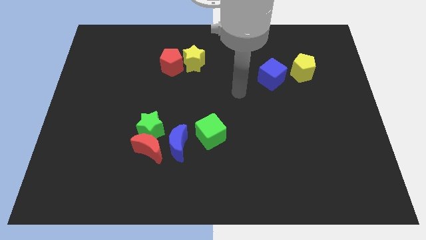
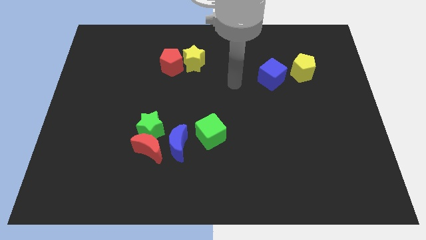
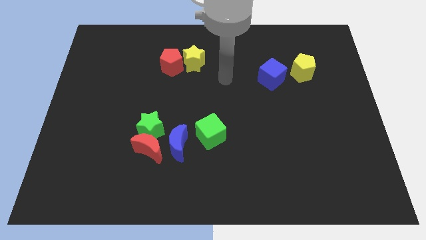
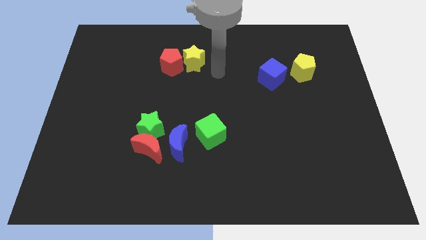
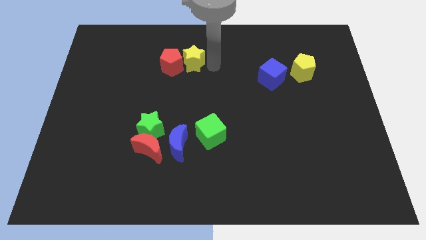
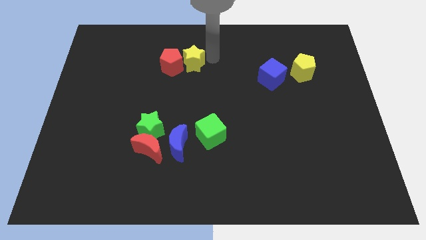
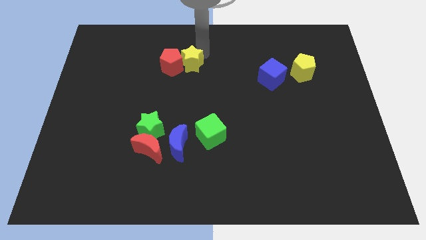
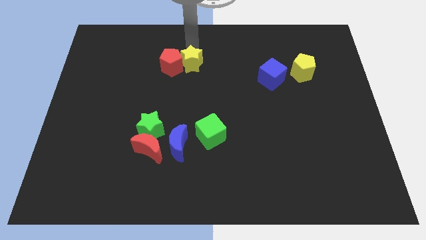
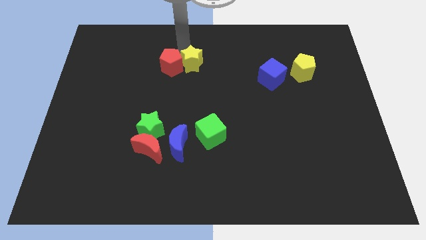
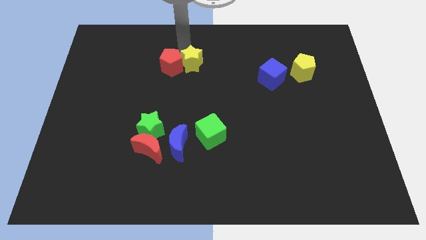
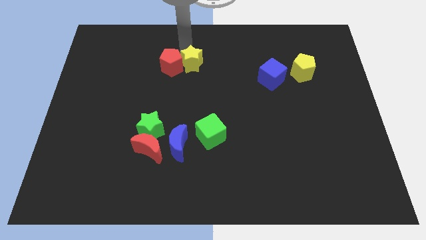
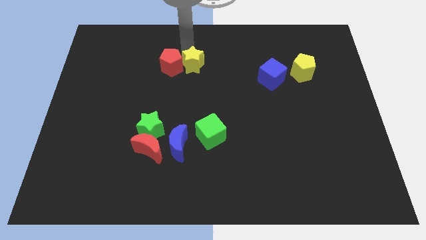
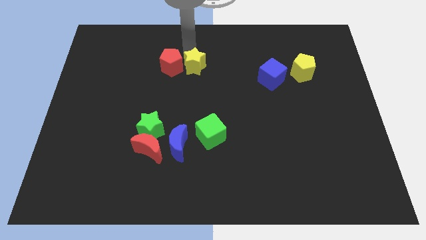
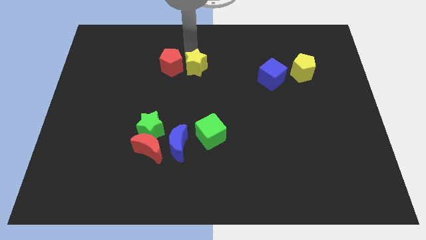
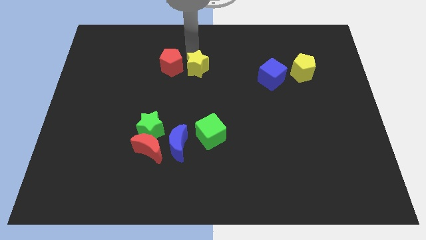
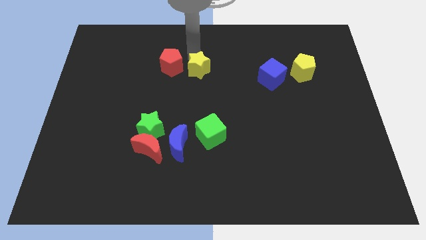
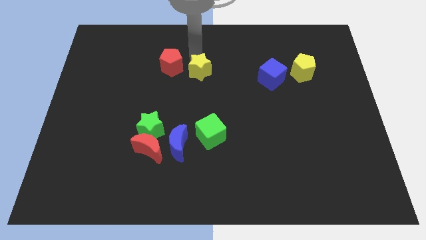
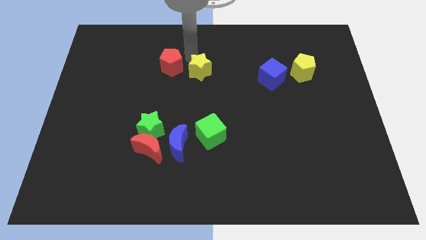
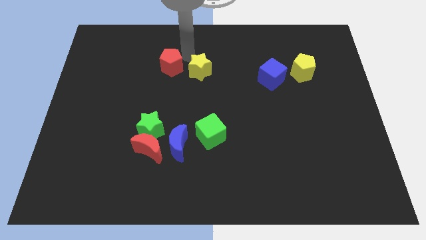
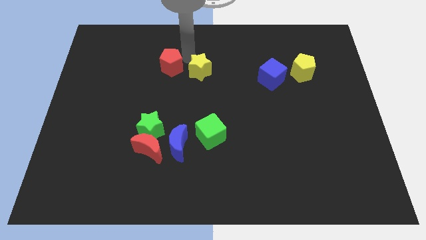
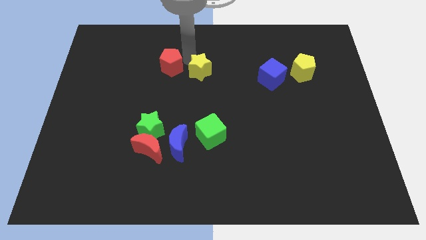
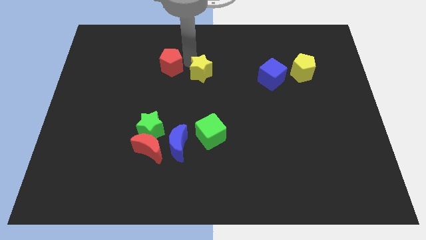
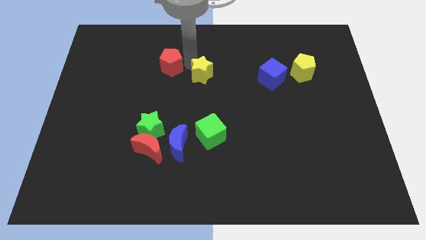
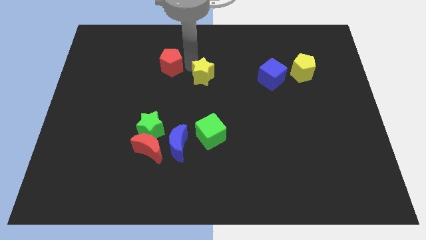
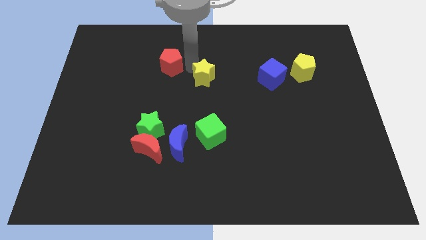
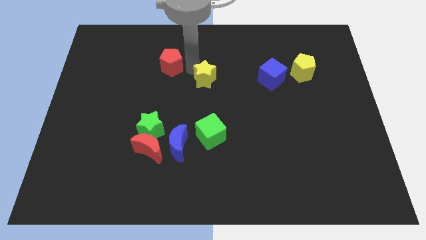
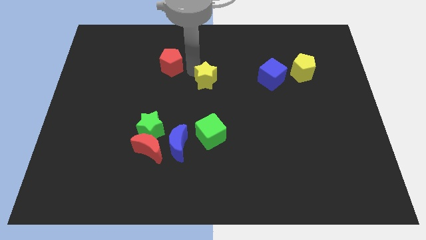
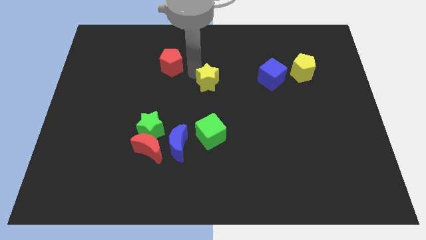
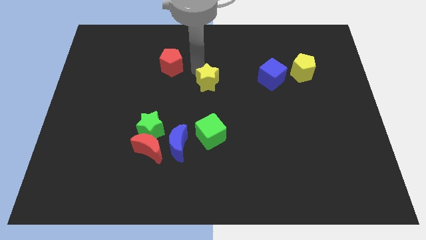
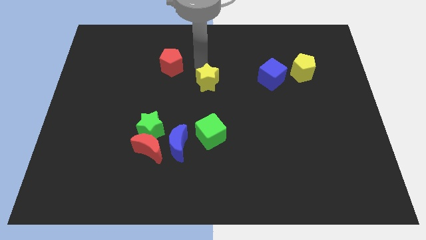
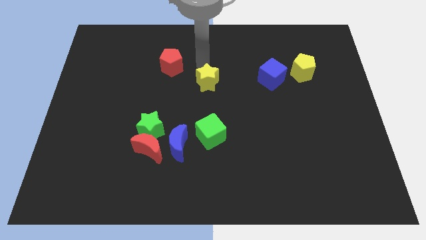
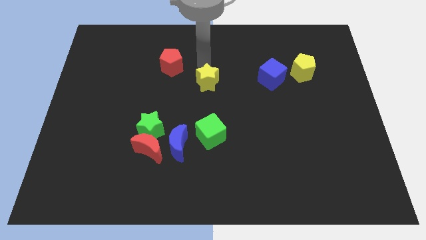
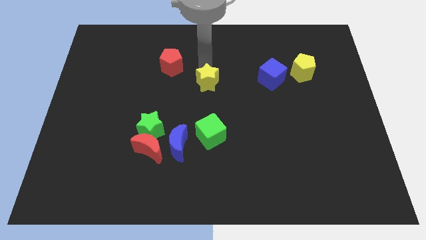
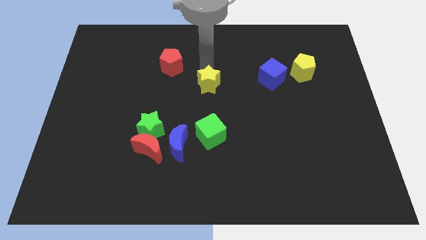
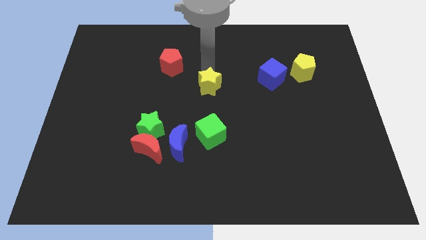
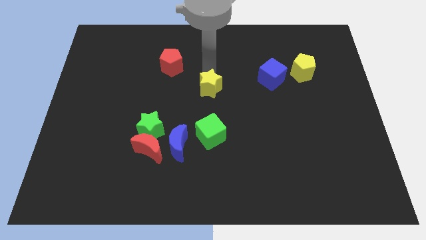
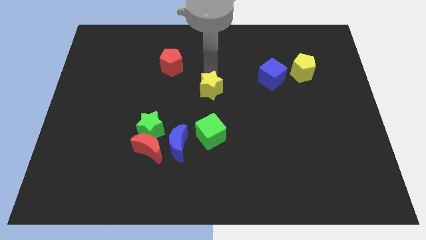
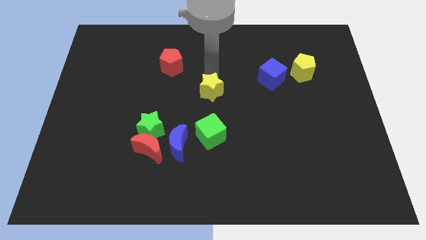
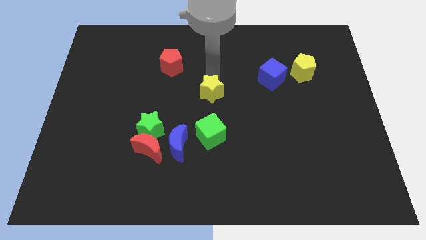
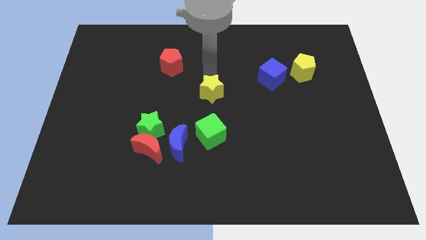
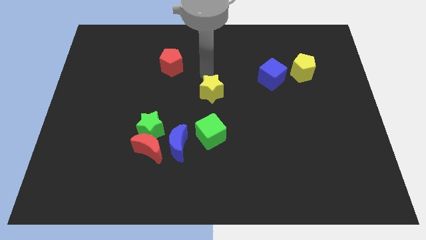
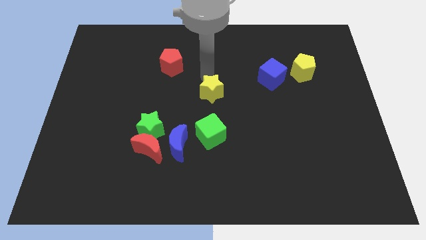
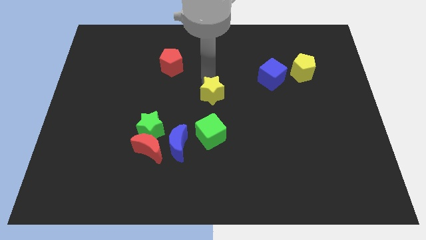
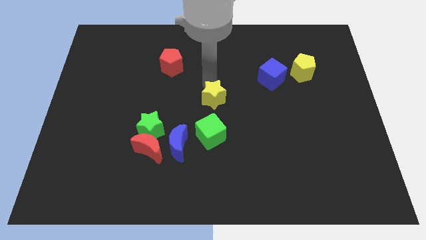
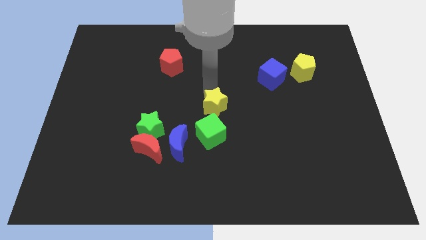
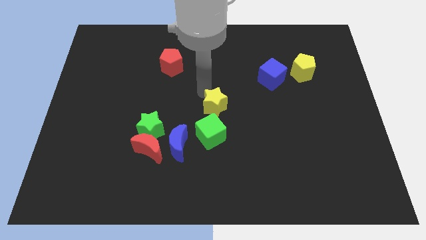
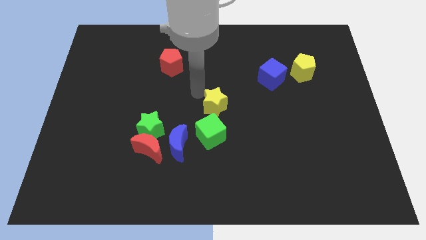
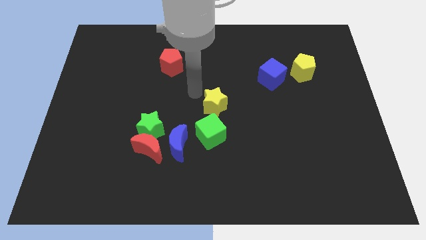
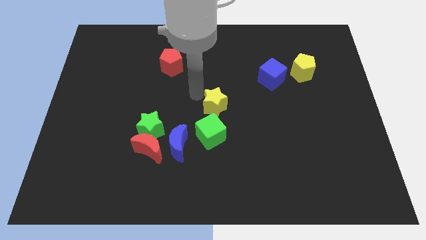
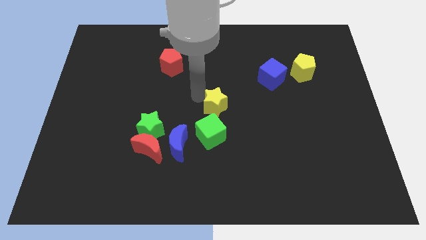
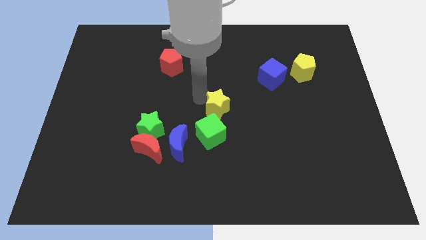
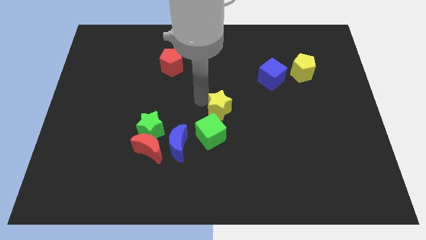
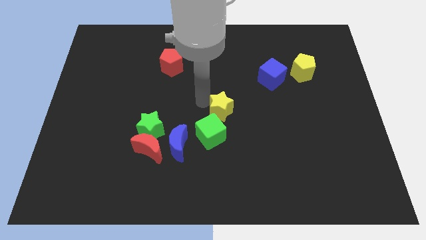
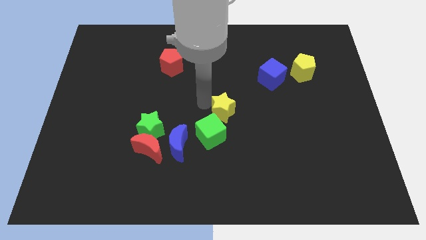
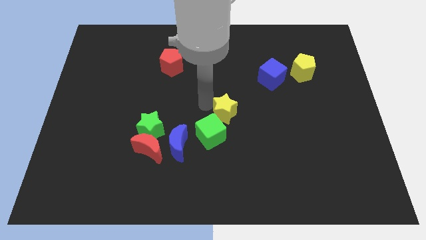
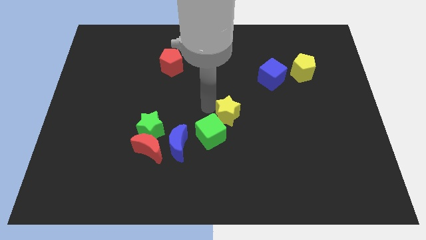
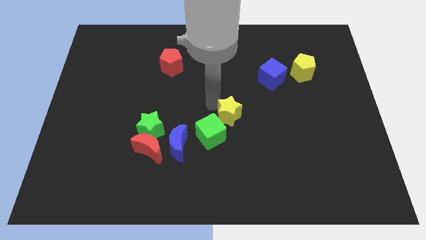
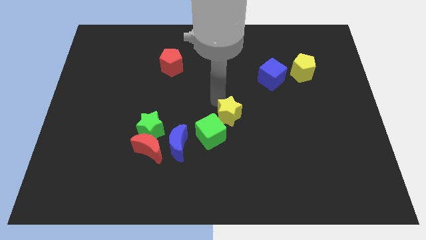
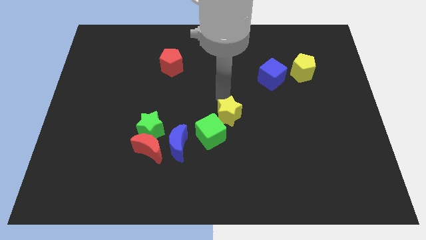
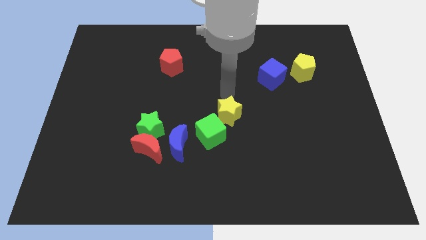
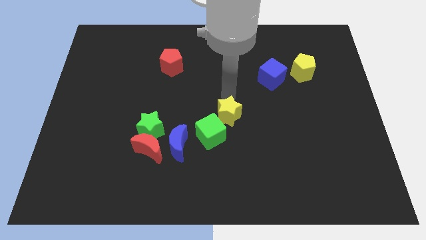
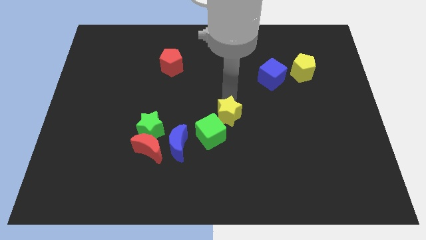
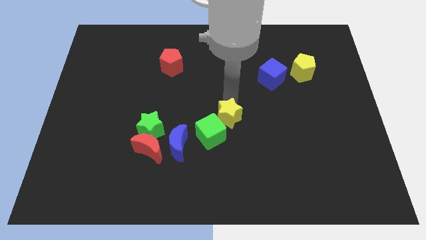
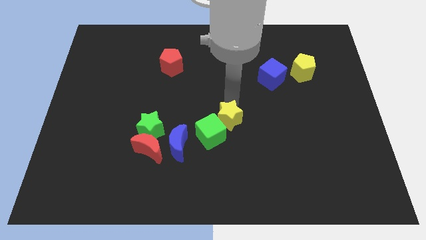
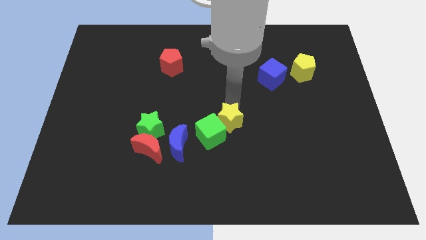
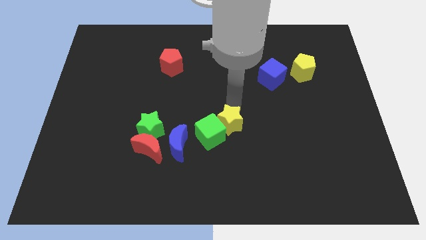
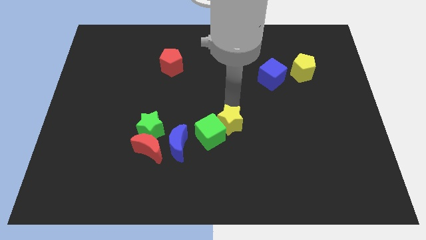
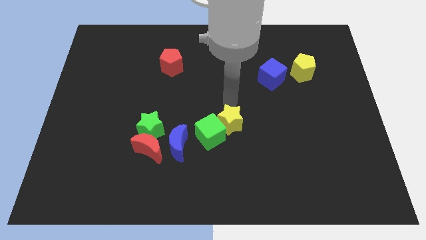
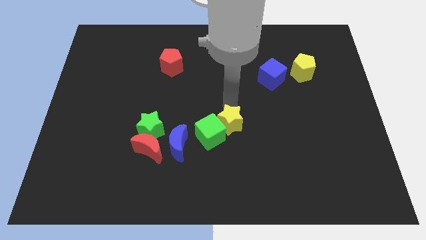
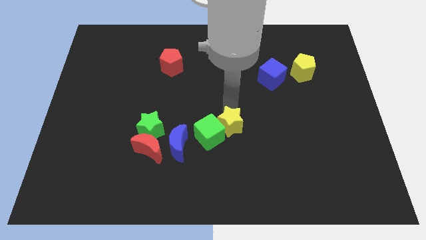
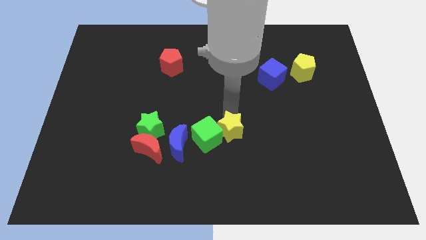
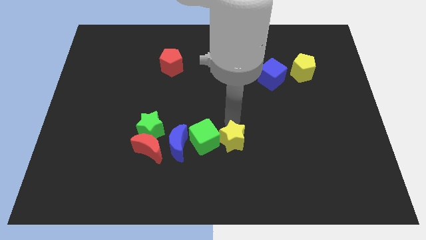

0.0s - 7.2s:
move the yellow star downwards

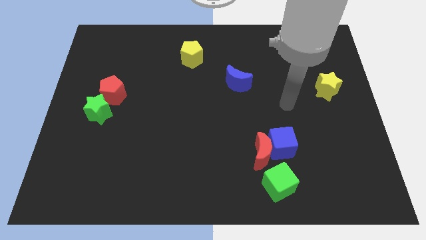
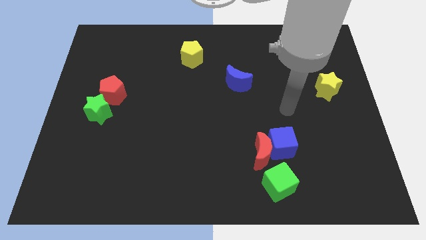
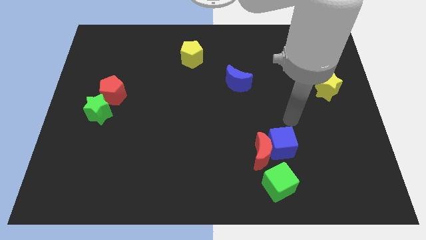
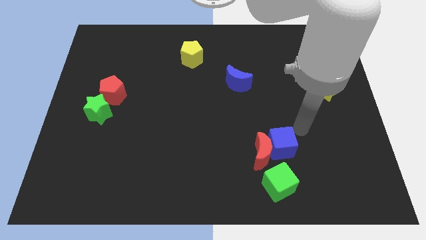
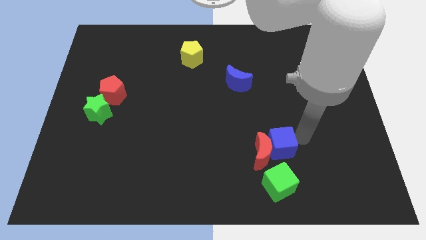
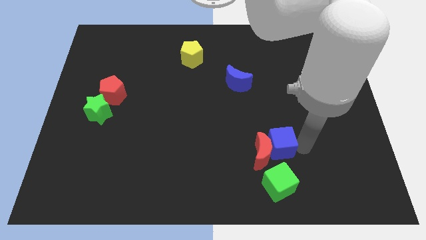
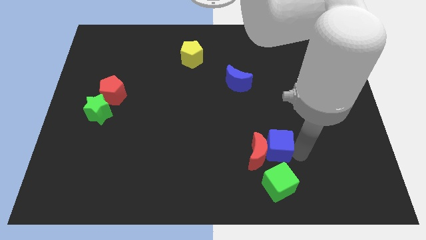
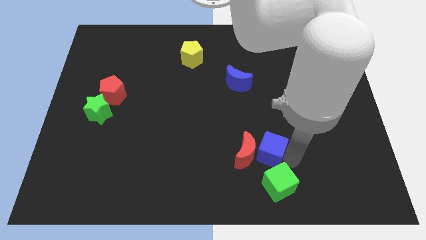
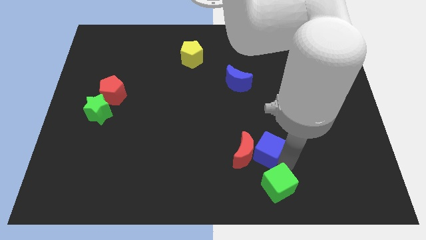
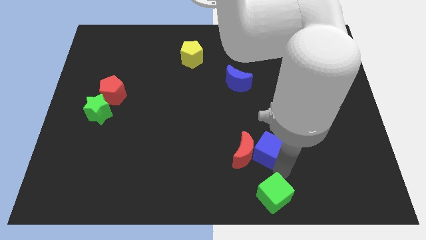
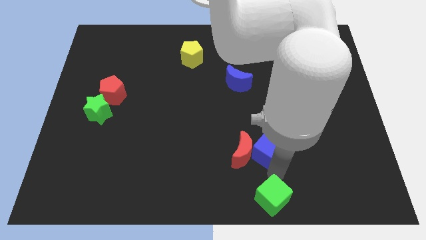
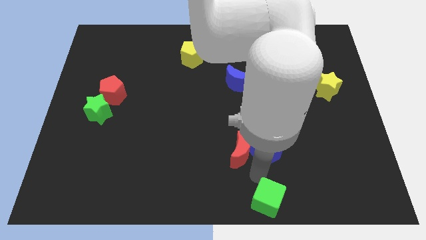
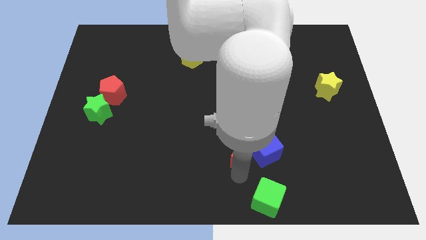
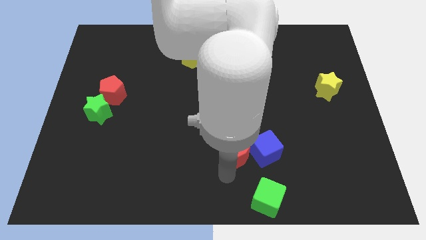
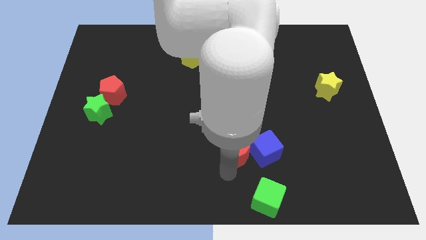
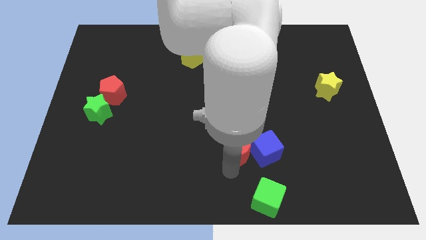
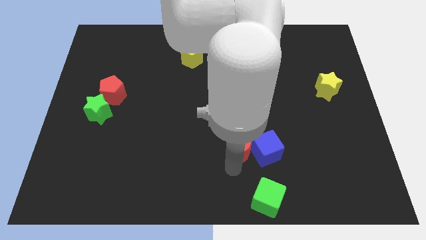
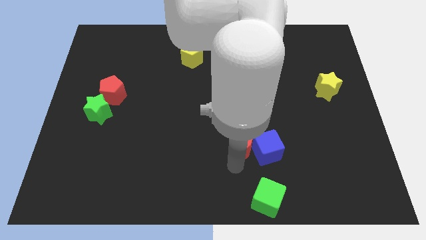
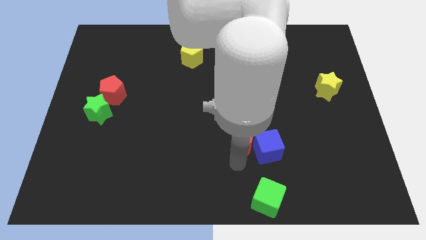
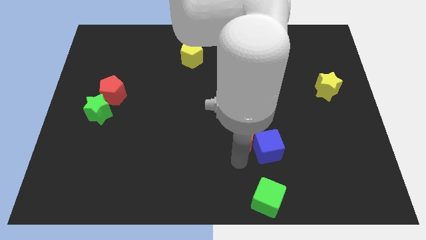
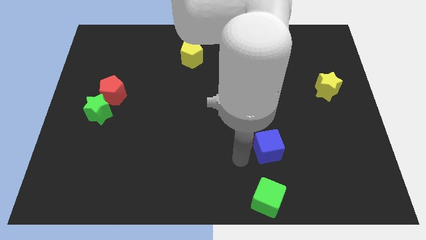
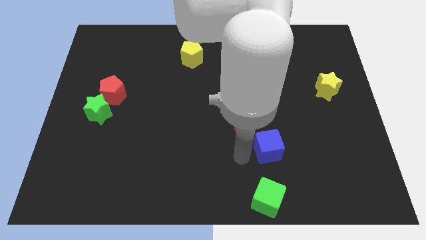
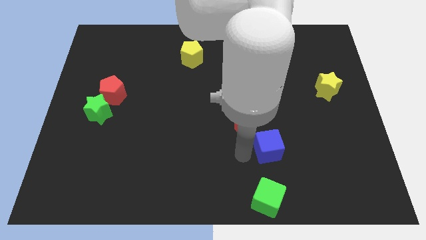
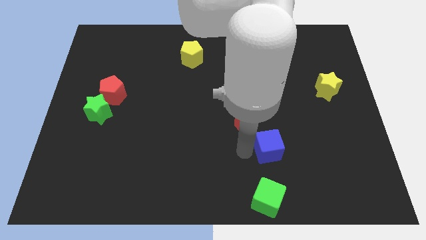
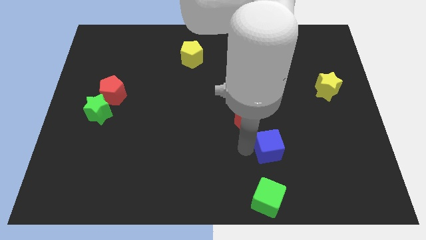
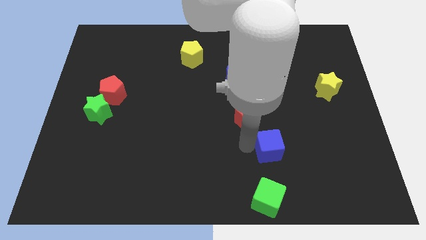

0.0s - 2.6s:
move the red moon upwards somewhat
